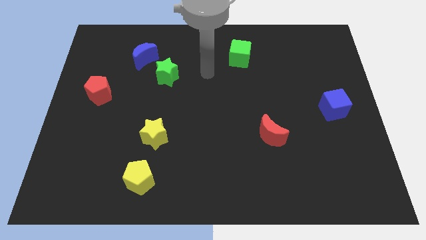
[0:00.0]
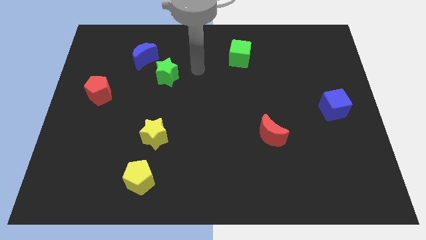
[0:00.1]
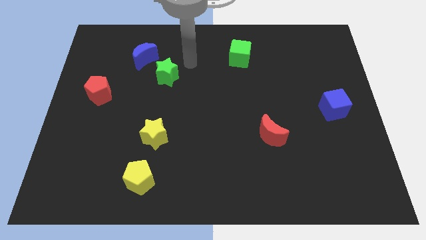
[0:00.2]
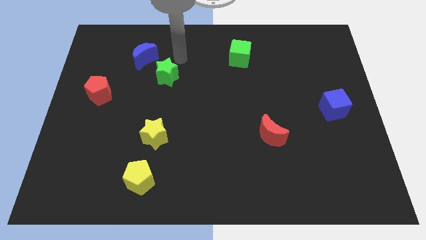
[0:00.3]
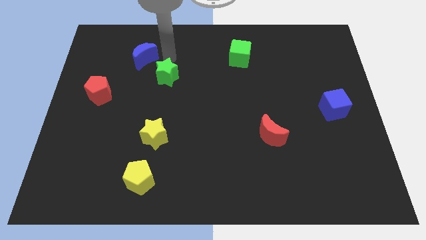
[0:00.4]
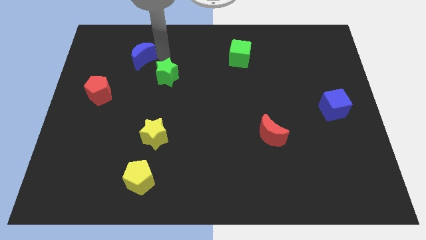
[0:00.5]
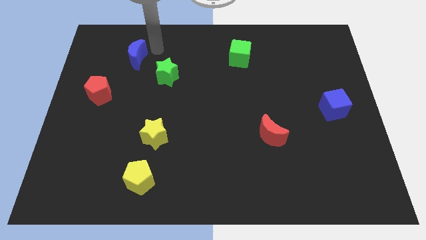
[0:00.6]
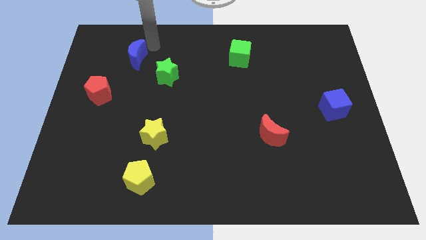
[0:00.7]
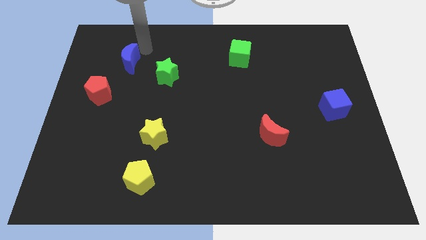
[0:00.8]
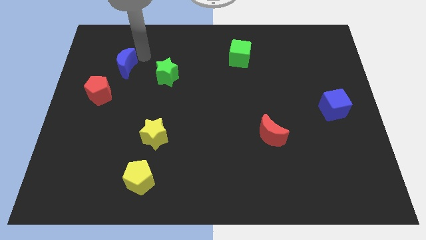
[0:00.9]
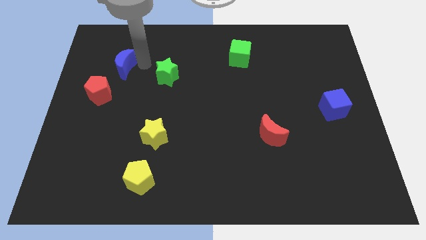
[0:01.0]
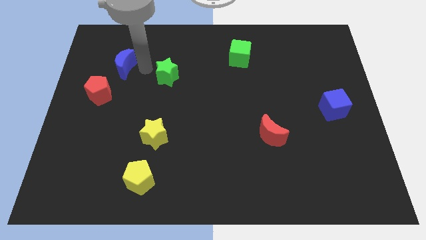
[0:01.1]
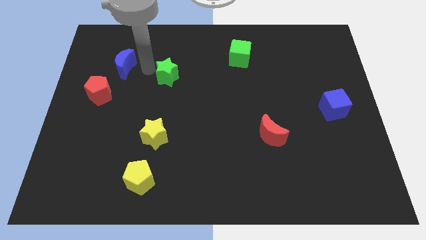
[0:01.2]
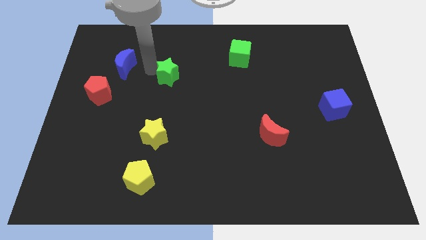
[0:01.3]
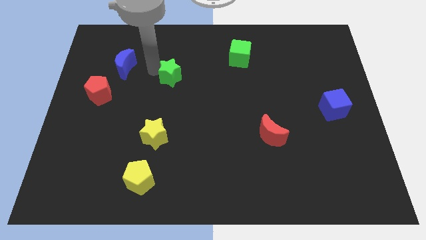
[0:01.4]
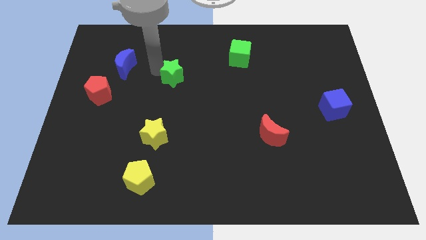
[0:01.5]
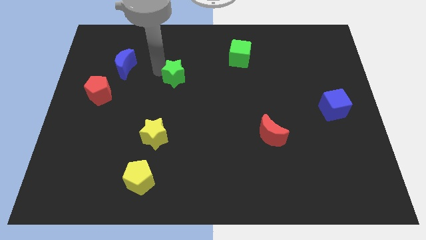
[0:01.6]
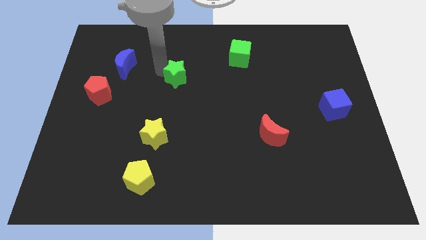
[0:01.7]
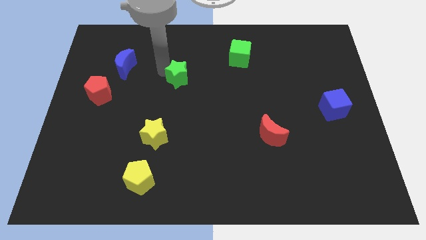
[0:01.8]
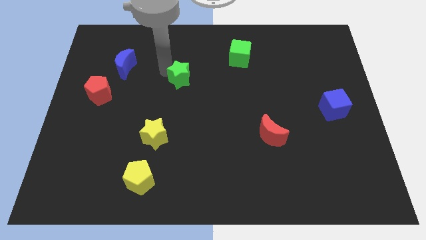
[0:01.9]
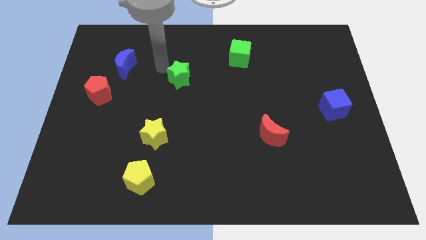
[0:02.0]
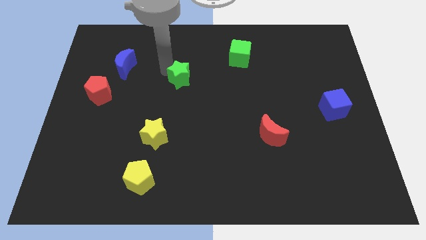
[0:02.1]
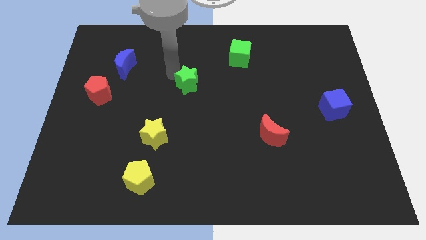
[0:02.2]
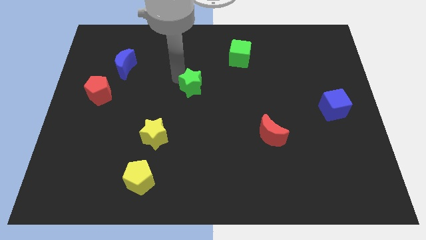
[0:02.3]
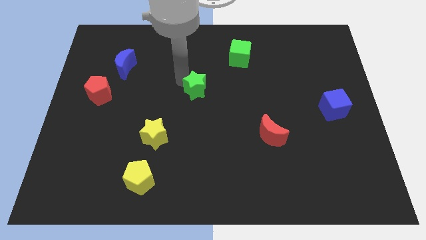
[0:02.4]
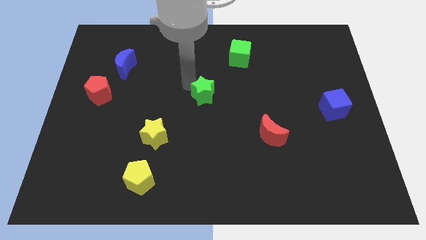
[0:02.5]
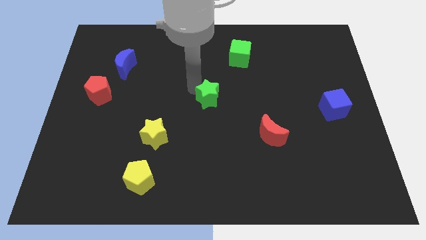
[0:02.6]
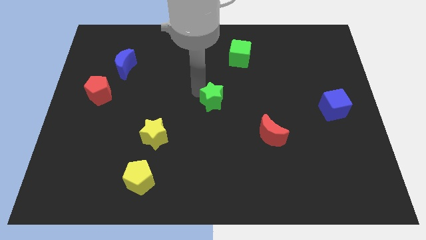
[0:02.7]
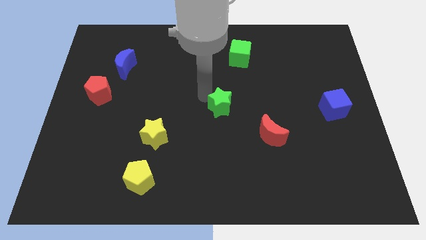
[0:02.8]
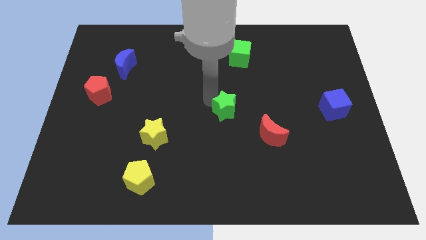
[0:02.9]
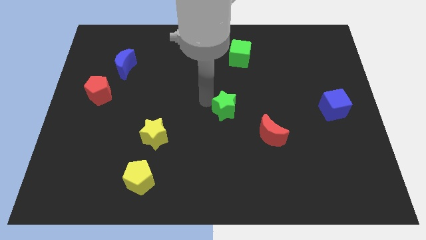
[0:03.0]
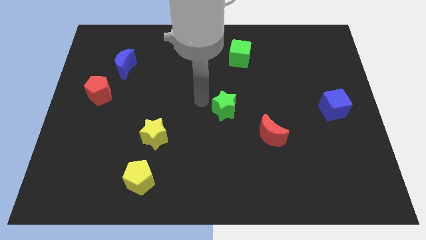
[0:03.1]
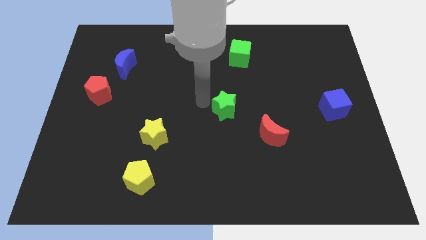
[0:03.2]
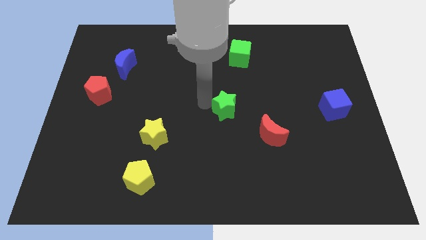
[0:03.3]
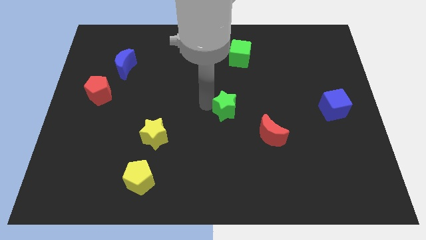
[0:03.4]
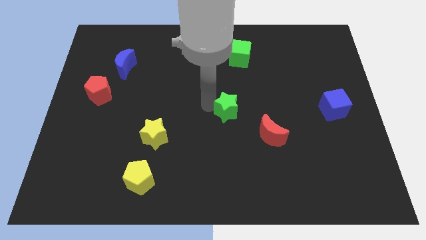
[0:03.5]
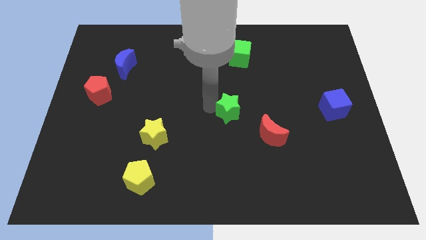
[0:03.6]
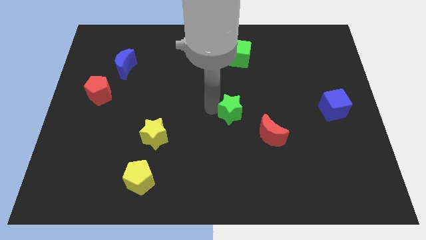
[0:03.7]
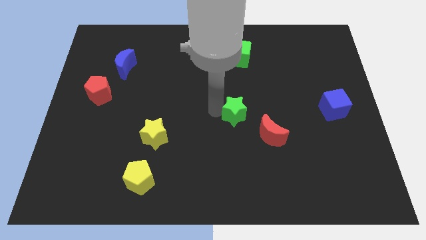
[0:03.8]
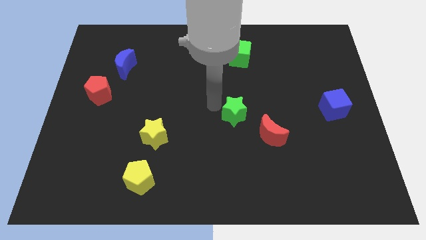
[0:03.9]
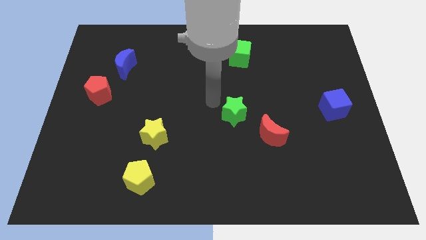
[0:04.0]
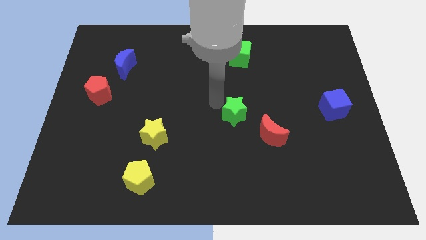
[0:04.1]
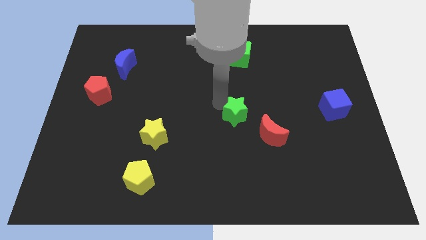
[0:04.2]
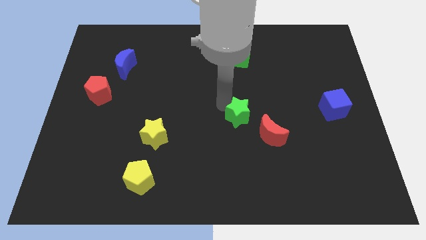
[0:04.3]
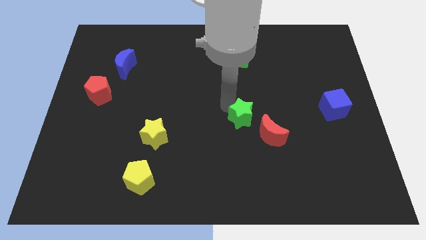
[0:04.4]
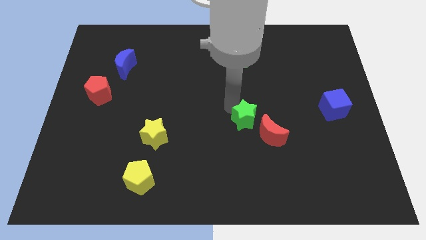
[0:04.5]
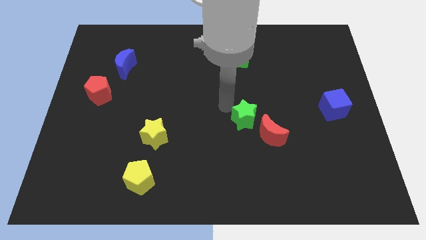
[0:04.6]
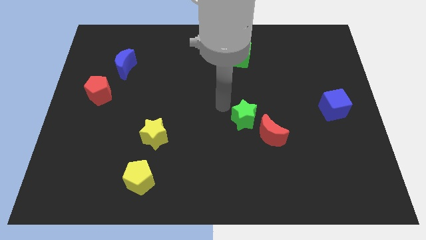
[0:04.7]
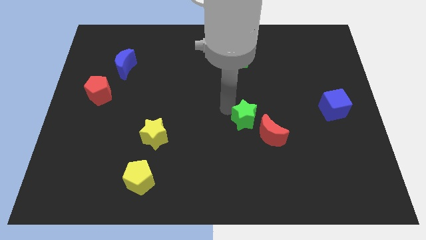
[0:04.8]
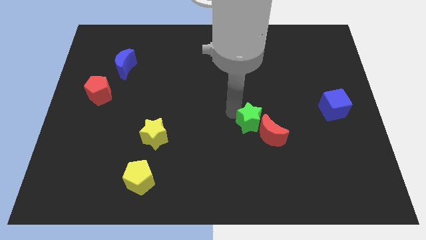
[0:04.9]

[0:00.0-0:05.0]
move the green star towards the red moon

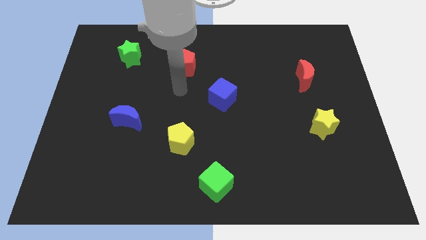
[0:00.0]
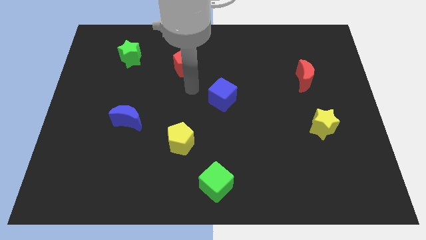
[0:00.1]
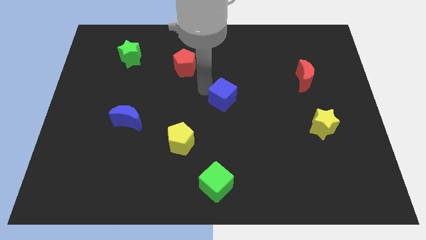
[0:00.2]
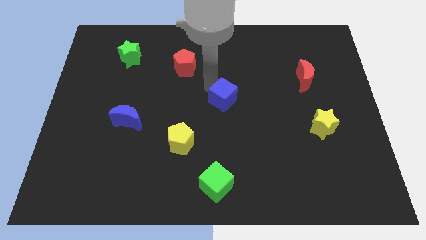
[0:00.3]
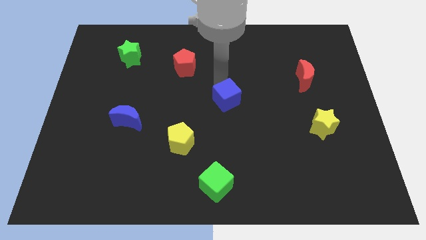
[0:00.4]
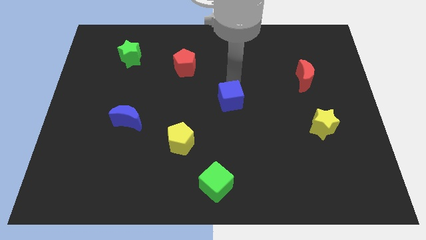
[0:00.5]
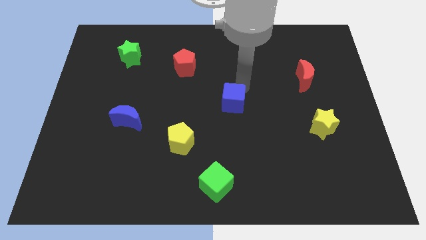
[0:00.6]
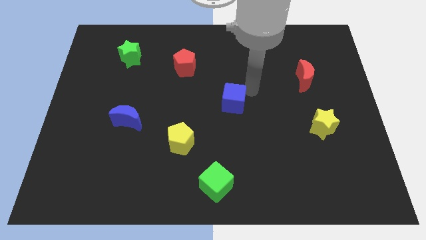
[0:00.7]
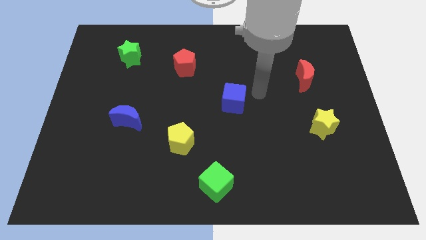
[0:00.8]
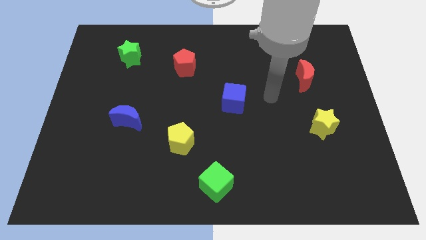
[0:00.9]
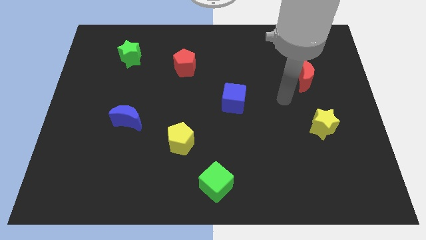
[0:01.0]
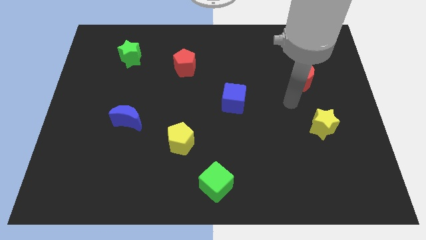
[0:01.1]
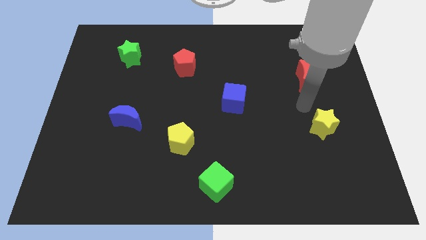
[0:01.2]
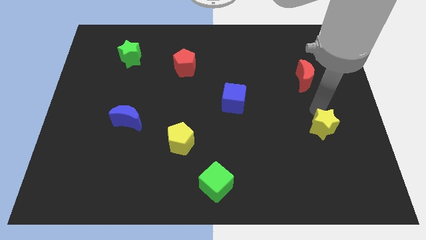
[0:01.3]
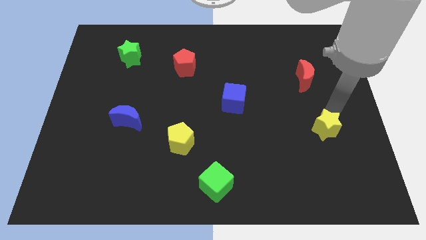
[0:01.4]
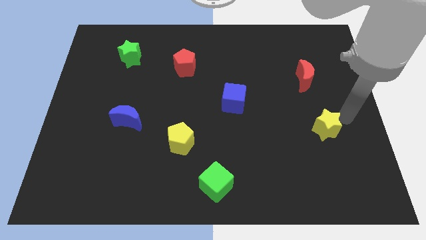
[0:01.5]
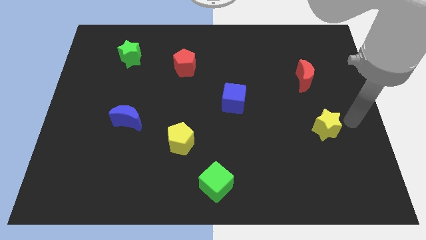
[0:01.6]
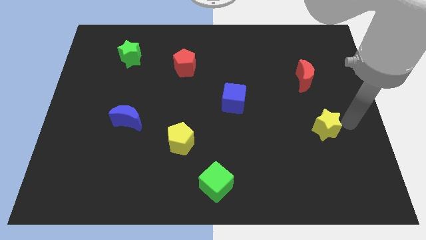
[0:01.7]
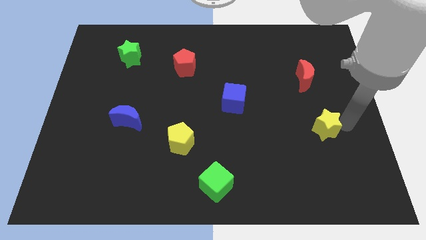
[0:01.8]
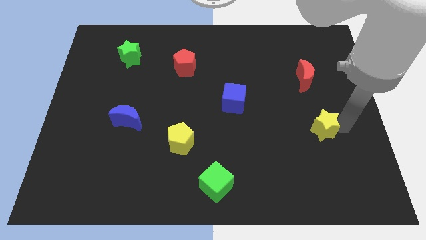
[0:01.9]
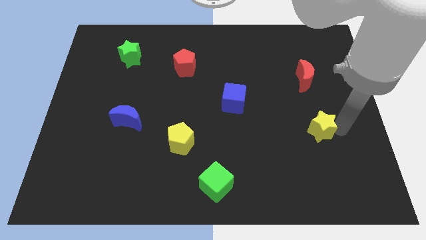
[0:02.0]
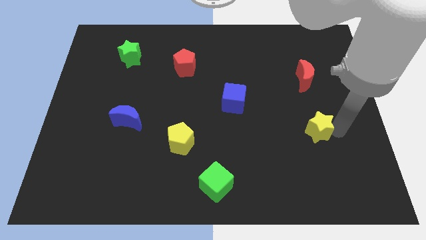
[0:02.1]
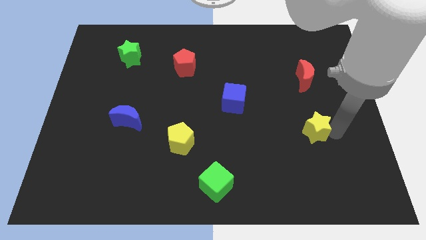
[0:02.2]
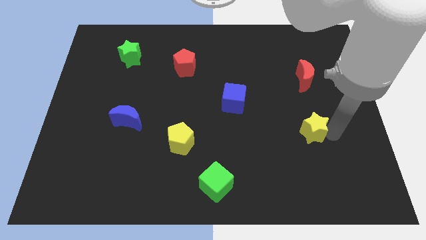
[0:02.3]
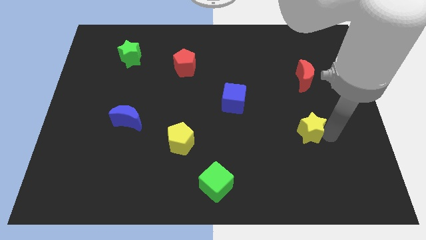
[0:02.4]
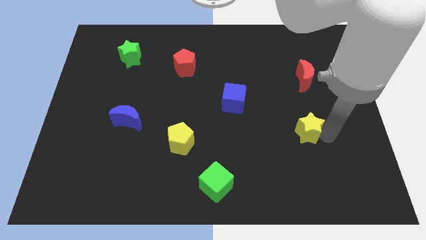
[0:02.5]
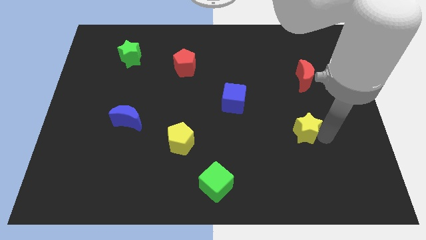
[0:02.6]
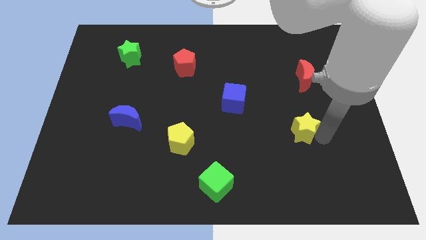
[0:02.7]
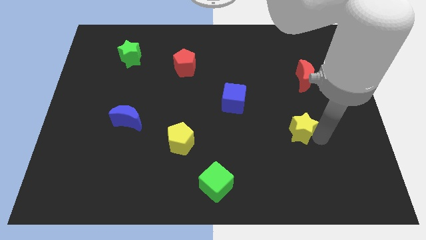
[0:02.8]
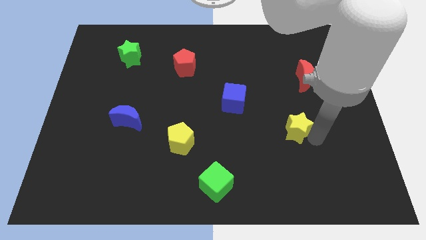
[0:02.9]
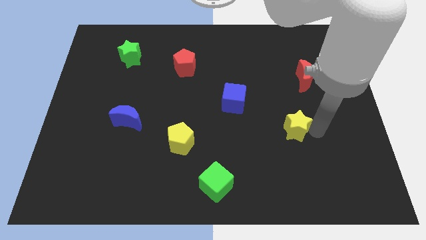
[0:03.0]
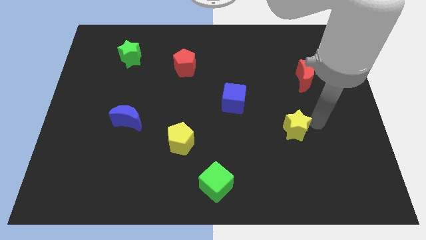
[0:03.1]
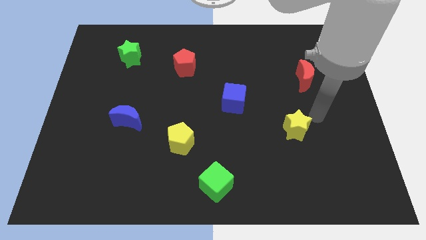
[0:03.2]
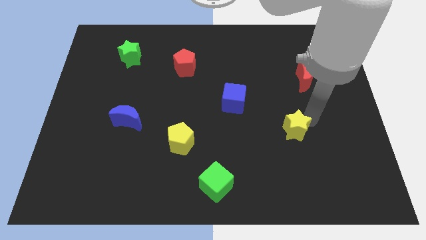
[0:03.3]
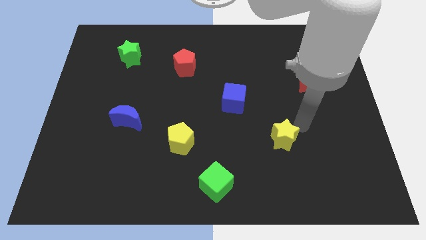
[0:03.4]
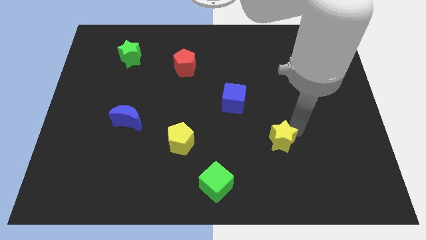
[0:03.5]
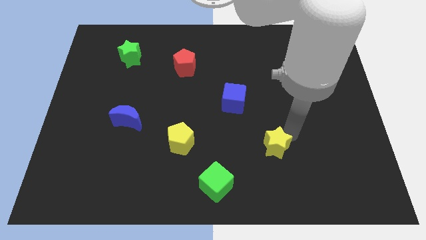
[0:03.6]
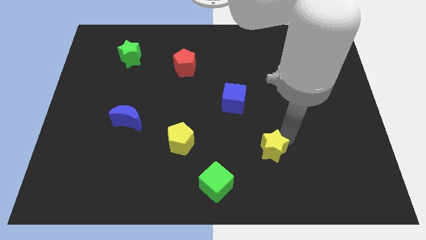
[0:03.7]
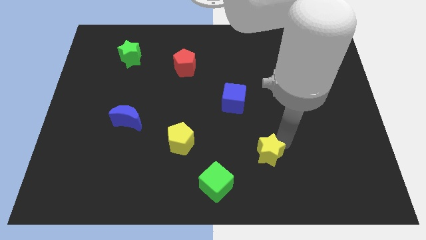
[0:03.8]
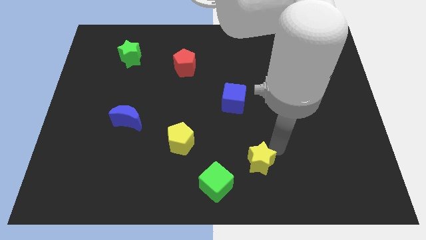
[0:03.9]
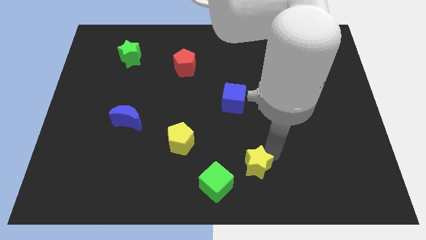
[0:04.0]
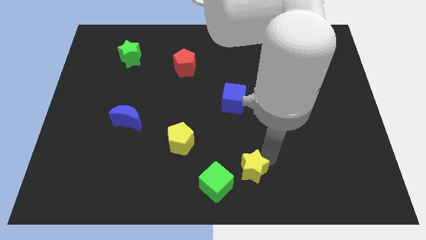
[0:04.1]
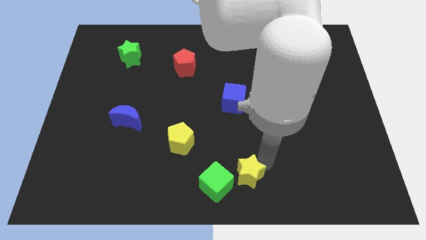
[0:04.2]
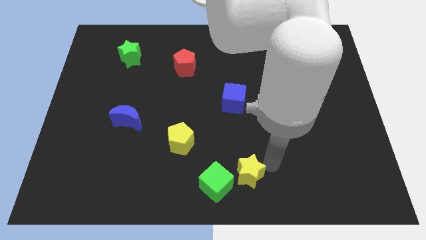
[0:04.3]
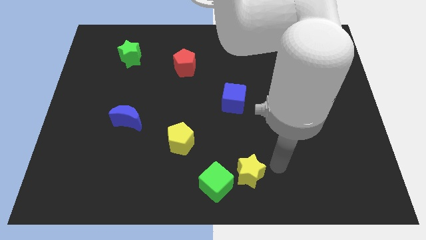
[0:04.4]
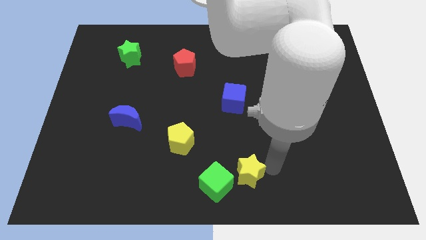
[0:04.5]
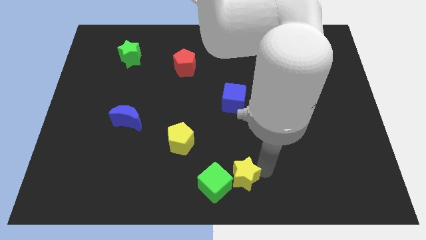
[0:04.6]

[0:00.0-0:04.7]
slide the yellow star close to the green cube
